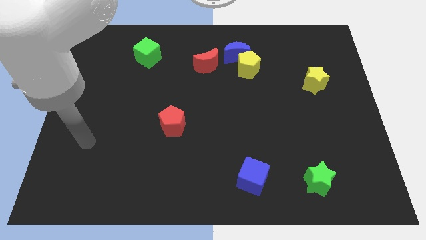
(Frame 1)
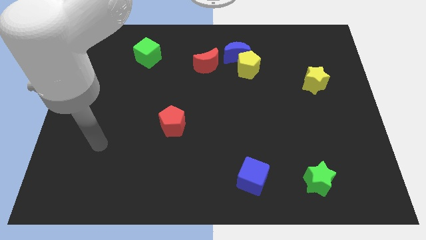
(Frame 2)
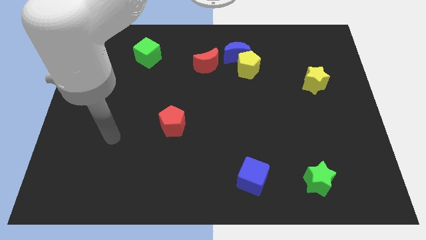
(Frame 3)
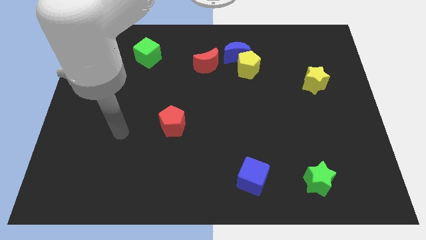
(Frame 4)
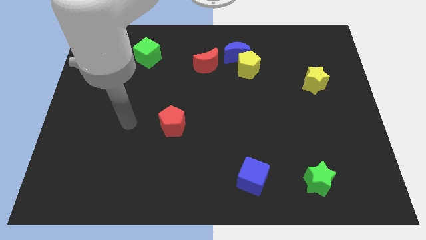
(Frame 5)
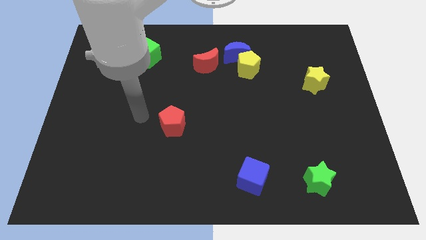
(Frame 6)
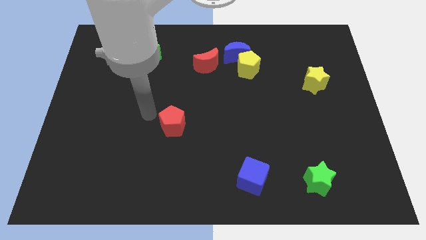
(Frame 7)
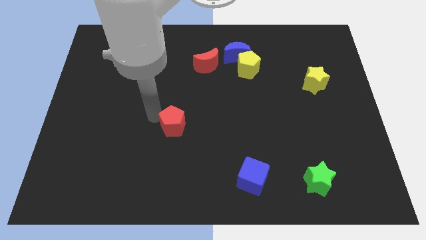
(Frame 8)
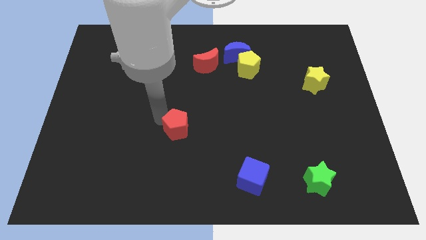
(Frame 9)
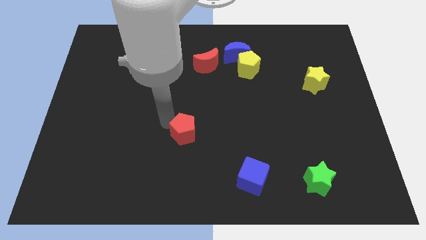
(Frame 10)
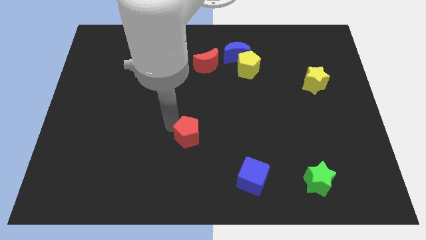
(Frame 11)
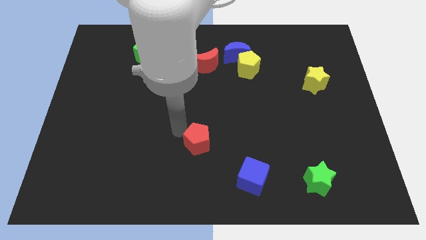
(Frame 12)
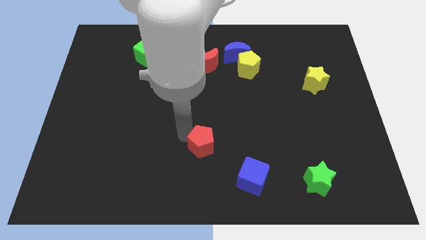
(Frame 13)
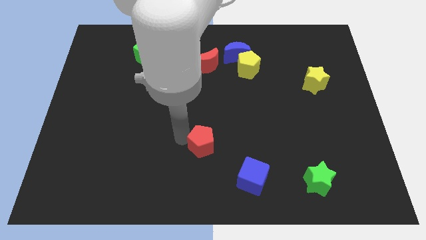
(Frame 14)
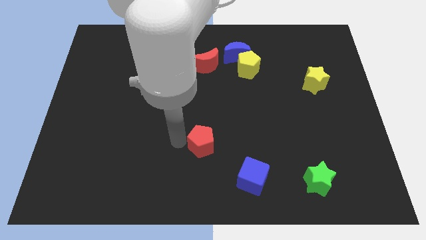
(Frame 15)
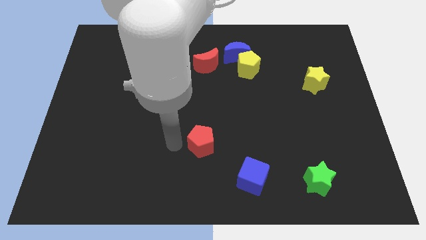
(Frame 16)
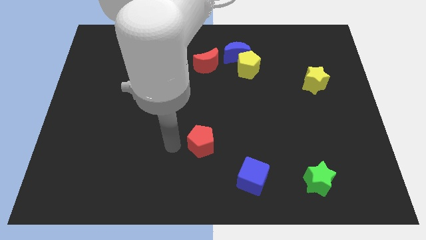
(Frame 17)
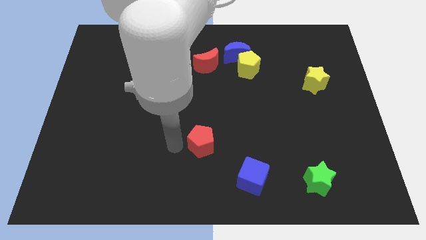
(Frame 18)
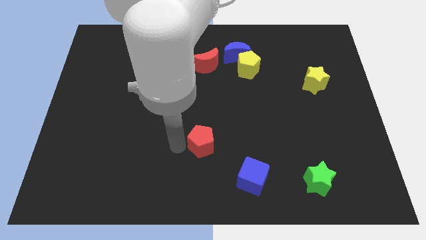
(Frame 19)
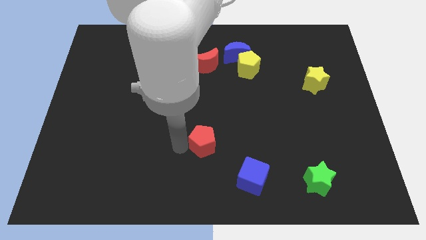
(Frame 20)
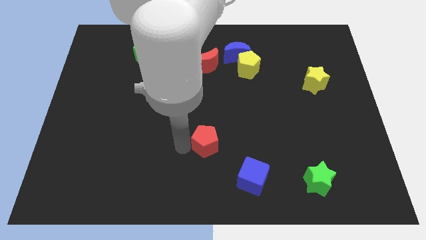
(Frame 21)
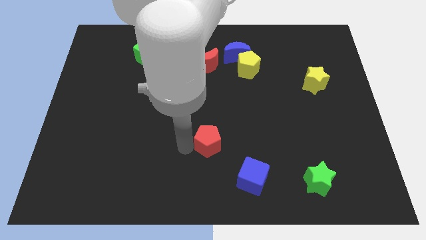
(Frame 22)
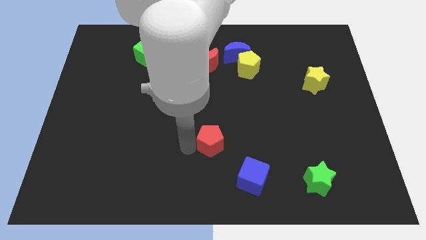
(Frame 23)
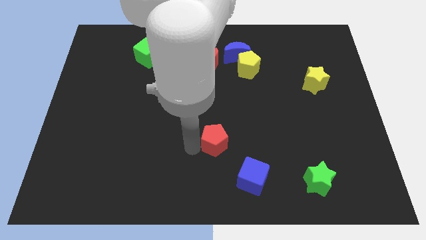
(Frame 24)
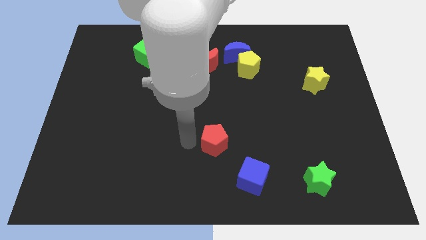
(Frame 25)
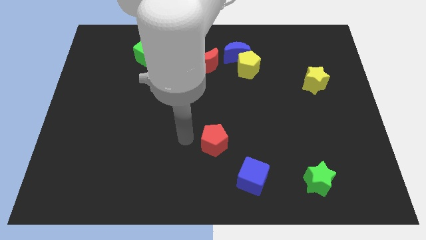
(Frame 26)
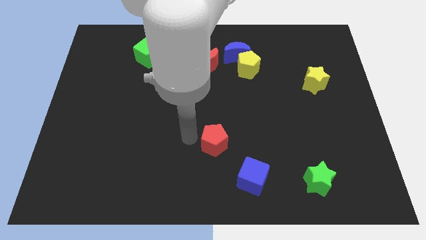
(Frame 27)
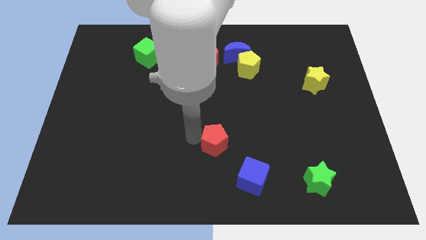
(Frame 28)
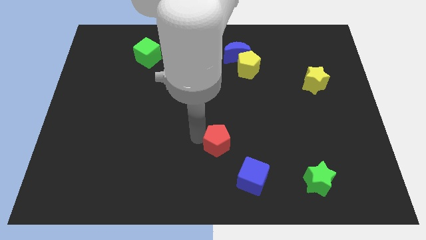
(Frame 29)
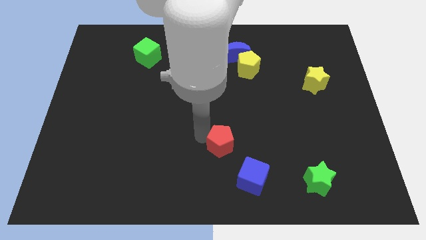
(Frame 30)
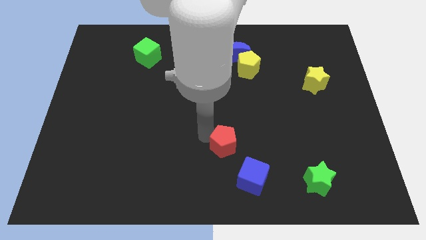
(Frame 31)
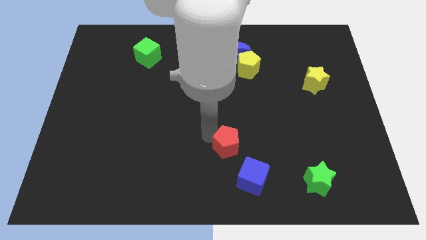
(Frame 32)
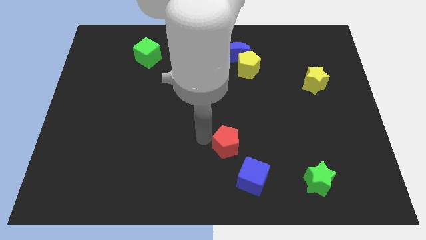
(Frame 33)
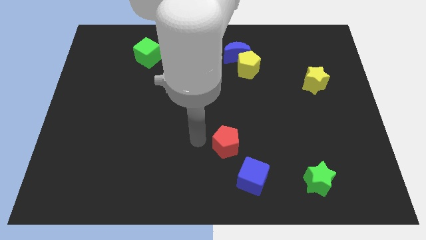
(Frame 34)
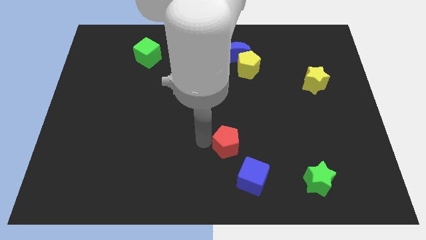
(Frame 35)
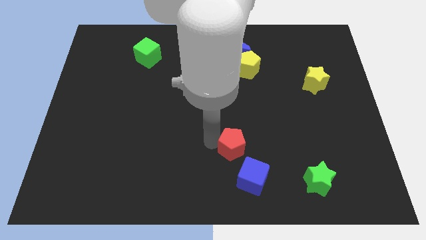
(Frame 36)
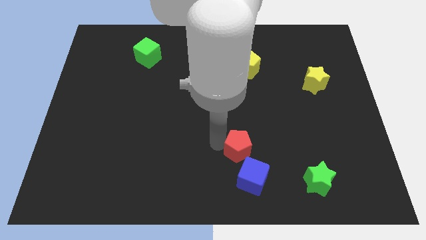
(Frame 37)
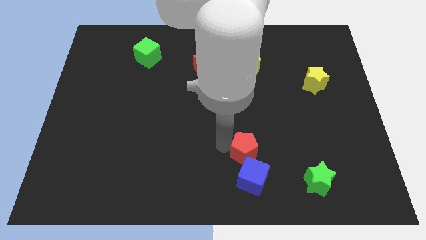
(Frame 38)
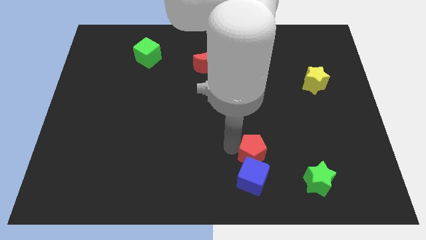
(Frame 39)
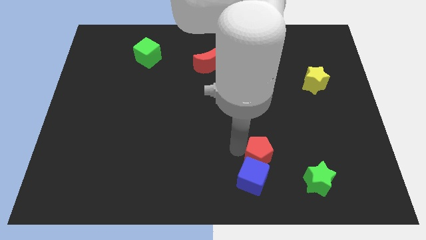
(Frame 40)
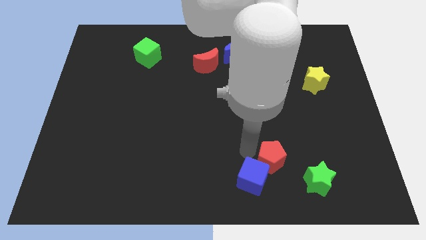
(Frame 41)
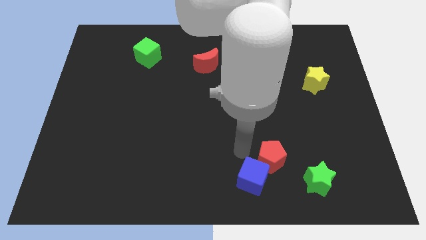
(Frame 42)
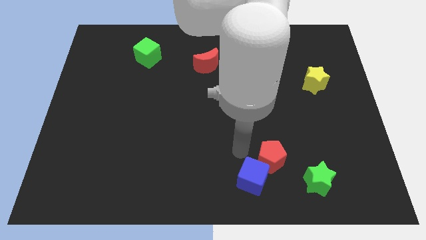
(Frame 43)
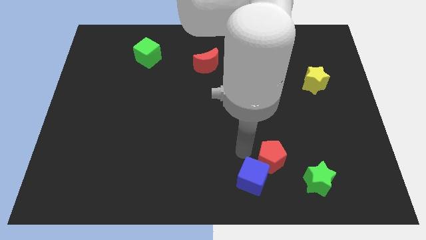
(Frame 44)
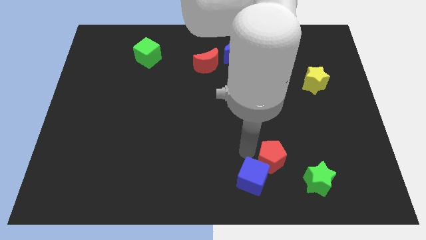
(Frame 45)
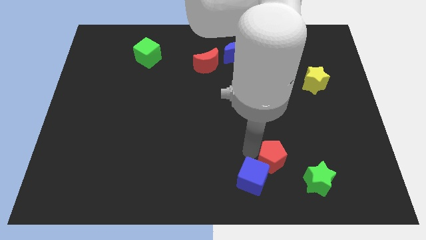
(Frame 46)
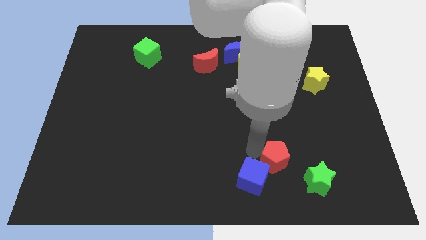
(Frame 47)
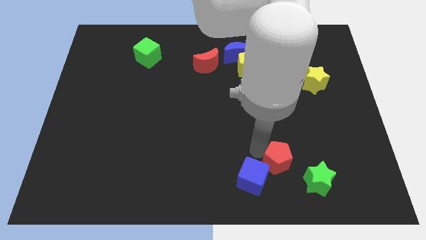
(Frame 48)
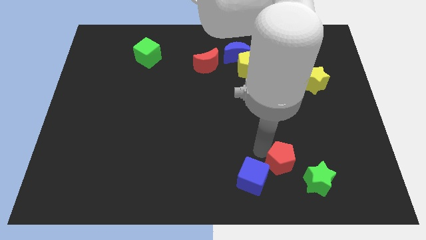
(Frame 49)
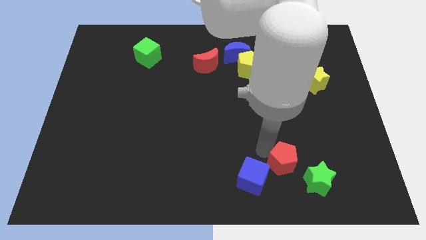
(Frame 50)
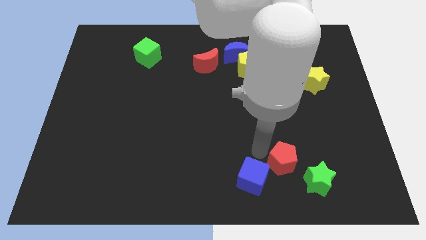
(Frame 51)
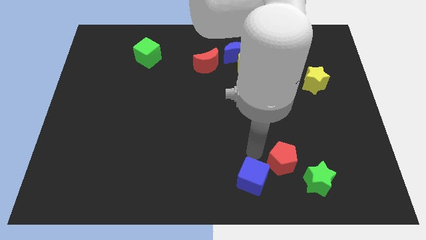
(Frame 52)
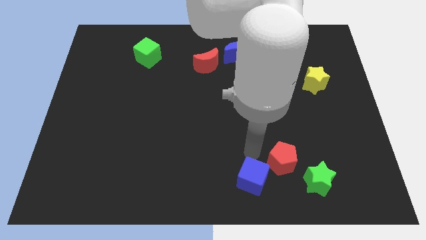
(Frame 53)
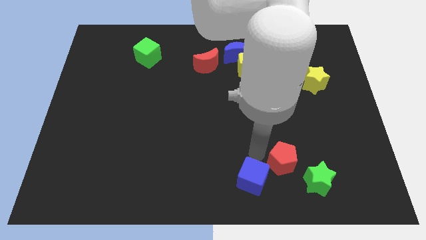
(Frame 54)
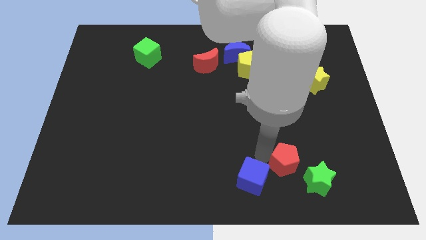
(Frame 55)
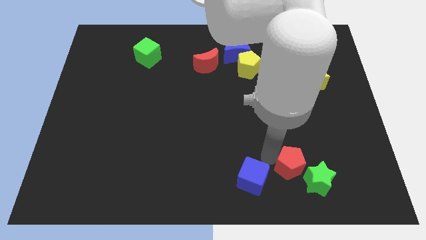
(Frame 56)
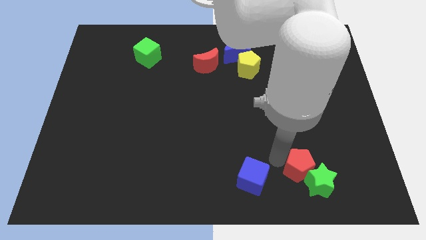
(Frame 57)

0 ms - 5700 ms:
move the red pentagon to the green star

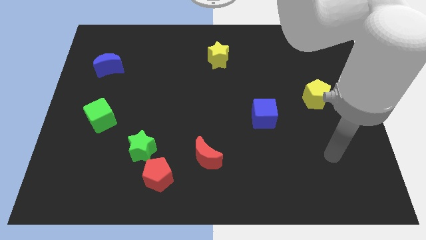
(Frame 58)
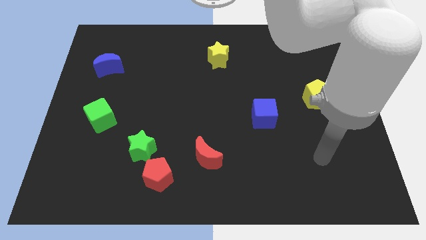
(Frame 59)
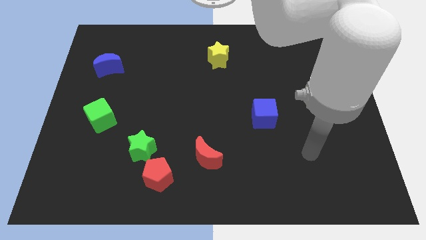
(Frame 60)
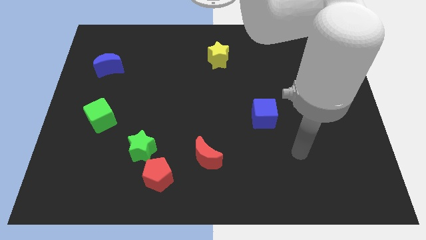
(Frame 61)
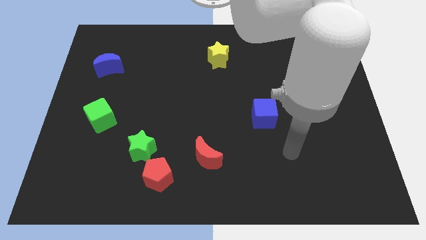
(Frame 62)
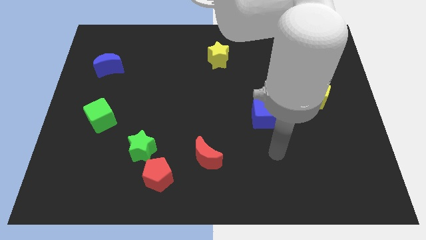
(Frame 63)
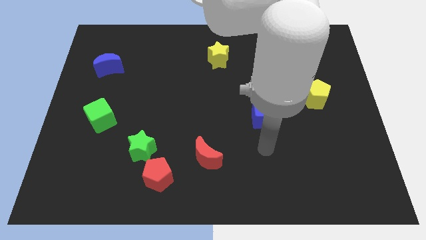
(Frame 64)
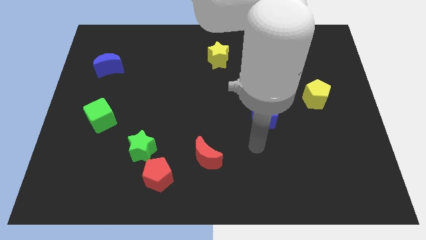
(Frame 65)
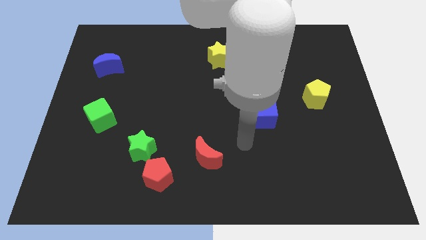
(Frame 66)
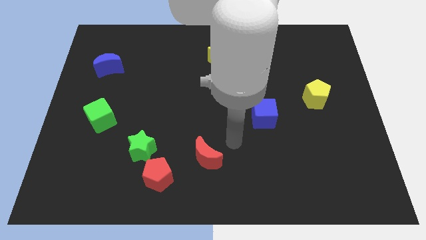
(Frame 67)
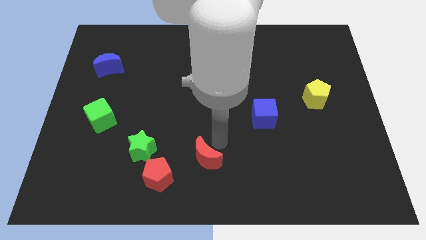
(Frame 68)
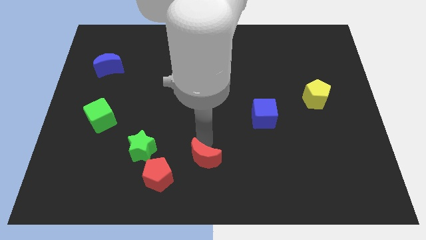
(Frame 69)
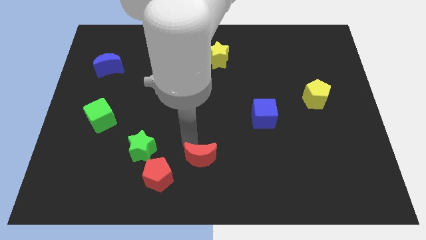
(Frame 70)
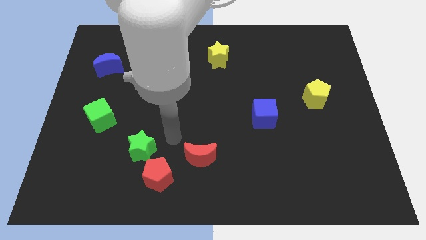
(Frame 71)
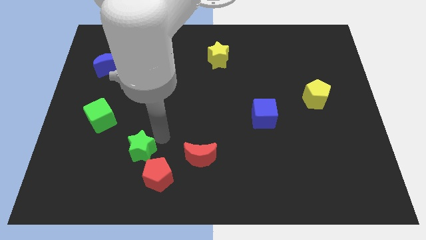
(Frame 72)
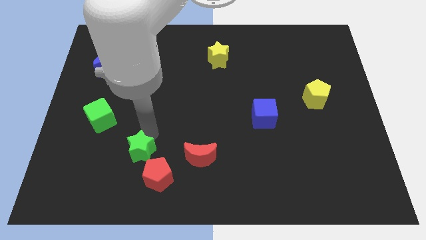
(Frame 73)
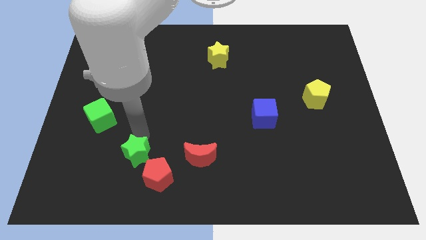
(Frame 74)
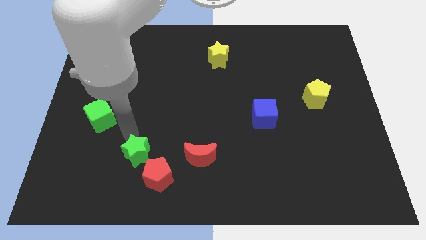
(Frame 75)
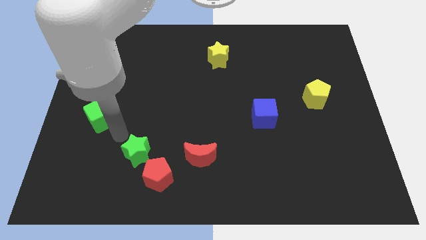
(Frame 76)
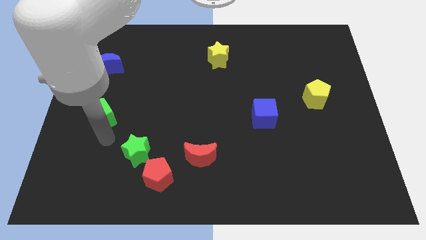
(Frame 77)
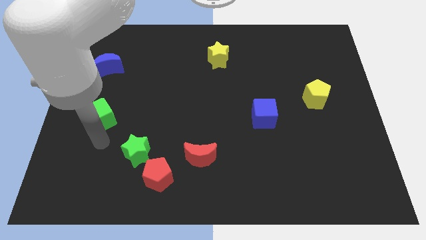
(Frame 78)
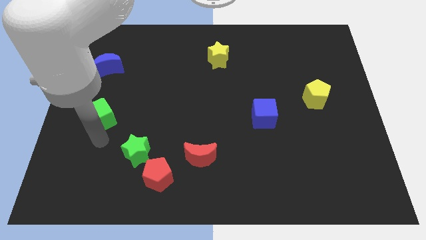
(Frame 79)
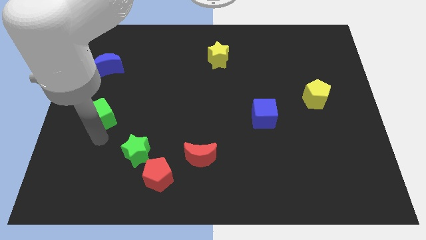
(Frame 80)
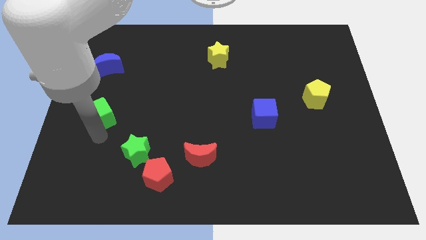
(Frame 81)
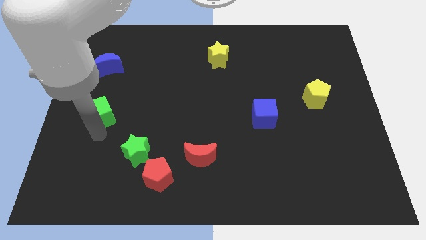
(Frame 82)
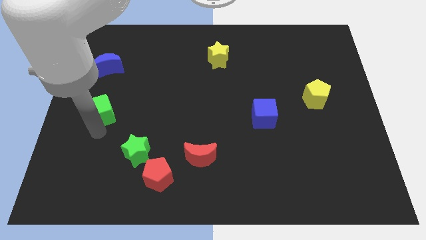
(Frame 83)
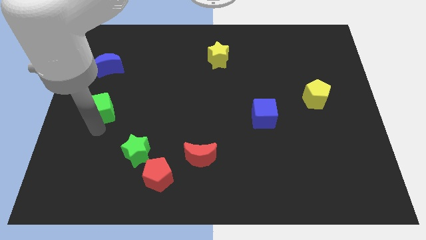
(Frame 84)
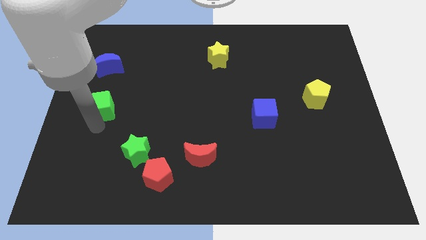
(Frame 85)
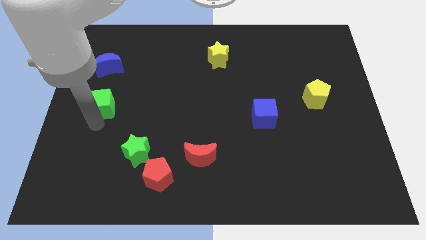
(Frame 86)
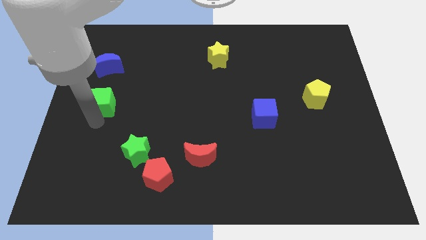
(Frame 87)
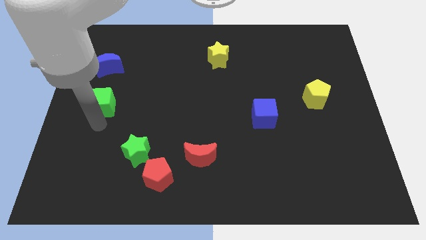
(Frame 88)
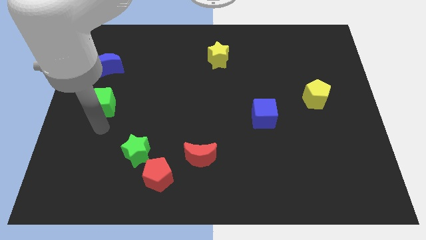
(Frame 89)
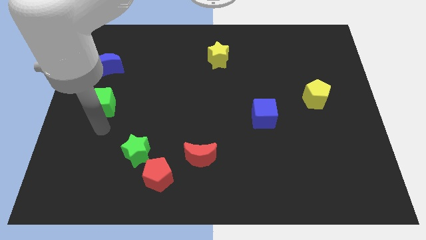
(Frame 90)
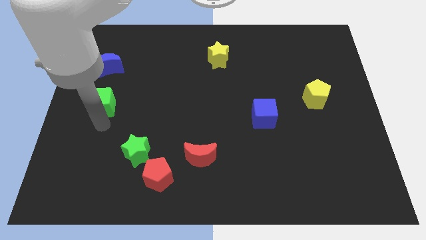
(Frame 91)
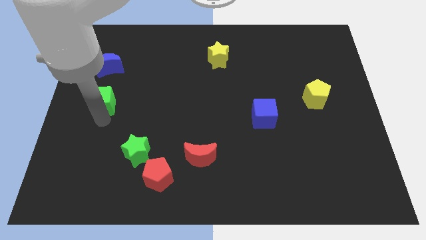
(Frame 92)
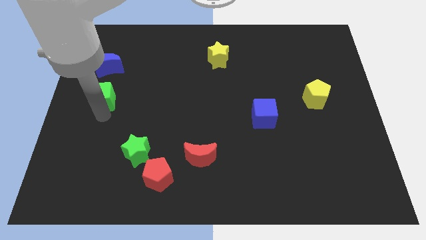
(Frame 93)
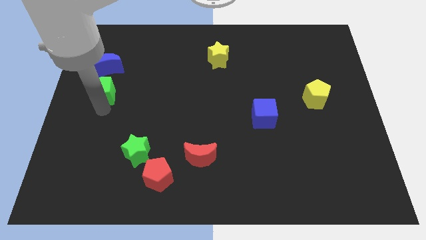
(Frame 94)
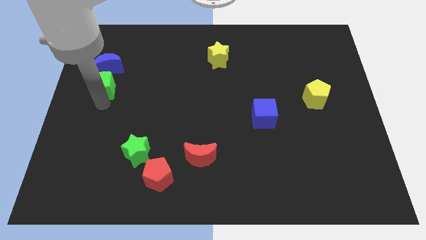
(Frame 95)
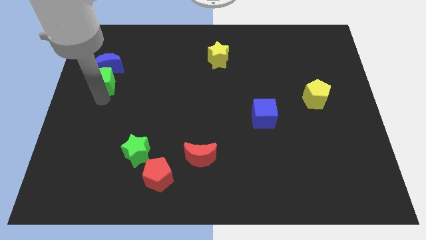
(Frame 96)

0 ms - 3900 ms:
slide the green cube next to the blue moon
